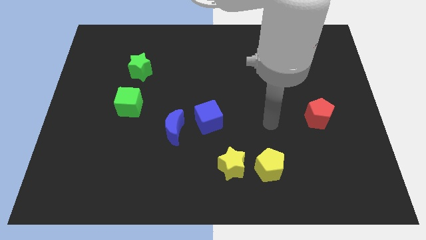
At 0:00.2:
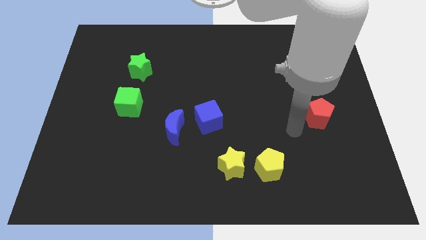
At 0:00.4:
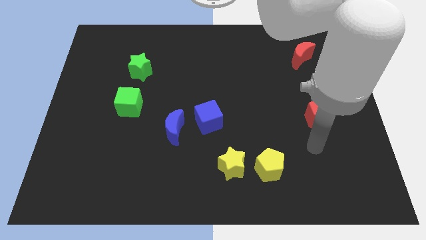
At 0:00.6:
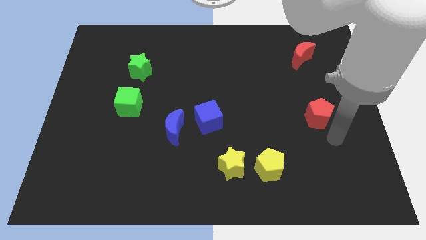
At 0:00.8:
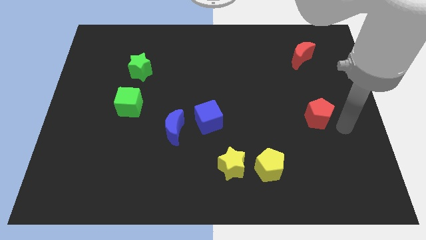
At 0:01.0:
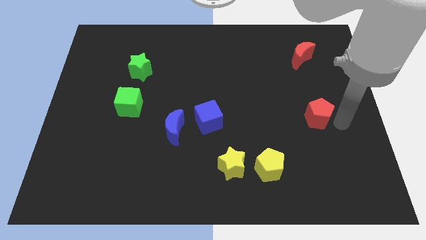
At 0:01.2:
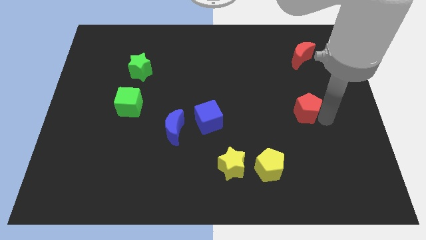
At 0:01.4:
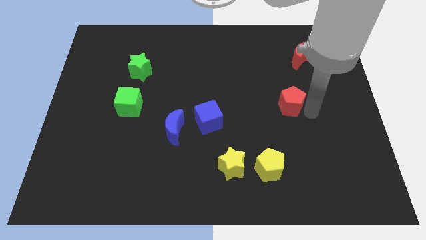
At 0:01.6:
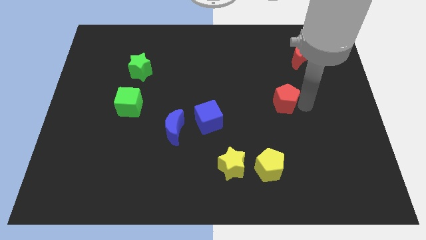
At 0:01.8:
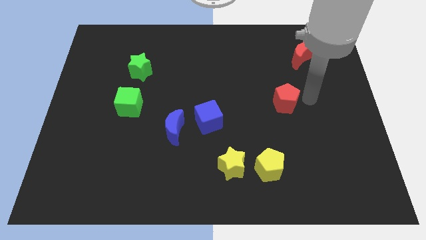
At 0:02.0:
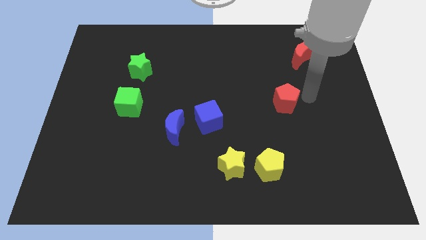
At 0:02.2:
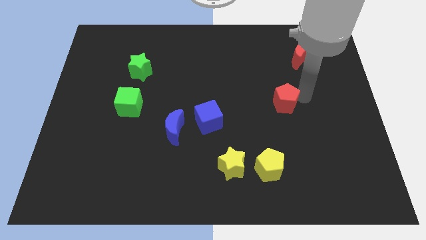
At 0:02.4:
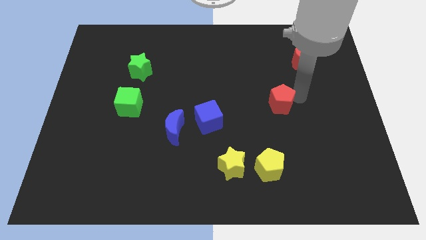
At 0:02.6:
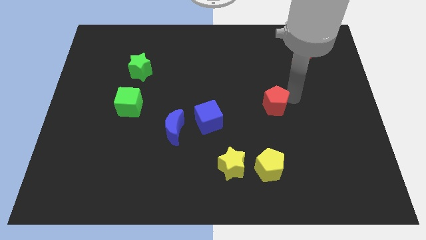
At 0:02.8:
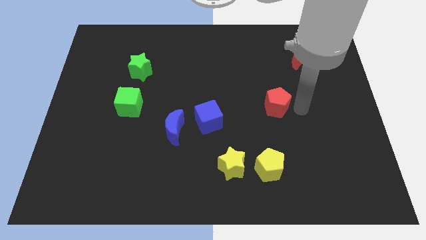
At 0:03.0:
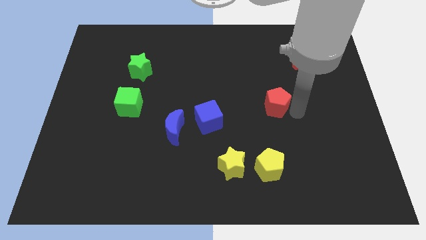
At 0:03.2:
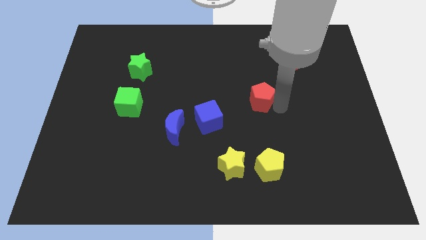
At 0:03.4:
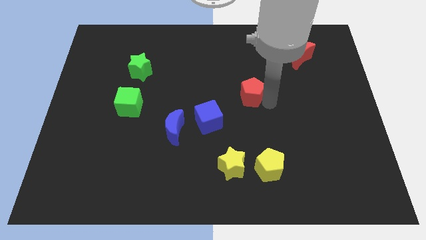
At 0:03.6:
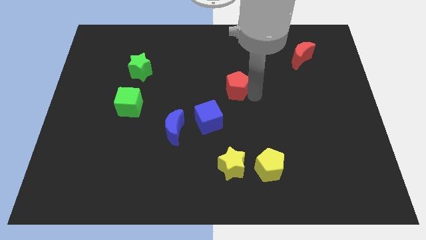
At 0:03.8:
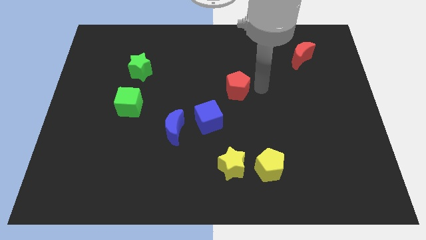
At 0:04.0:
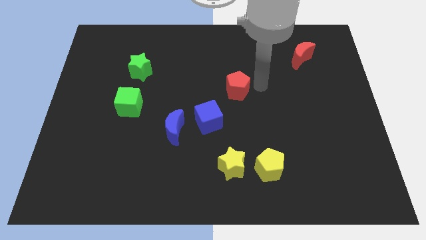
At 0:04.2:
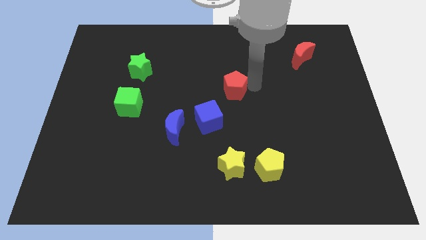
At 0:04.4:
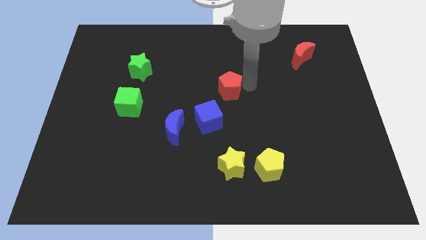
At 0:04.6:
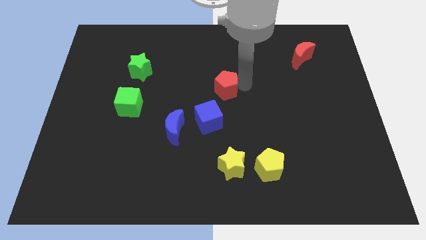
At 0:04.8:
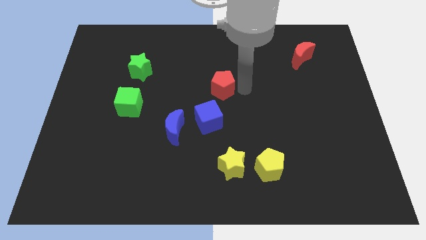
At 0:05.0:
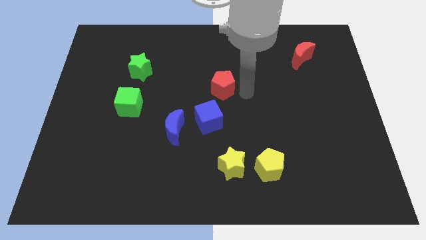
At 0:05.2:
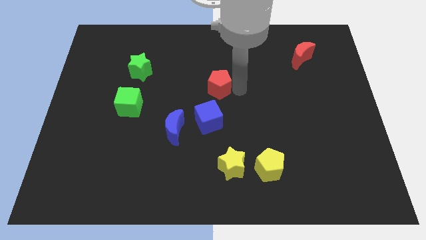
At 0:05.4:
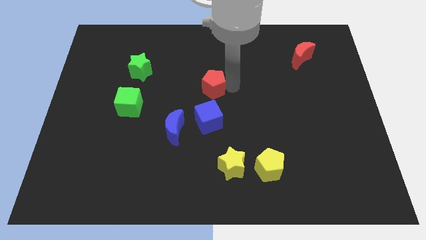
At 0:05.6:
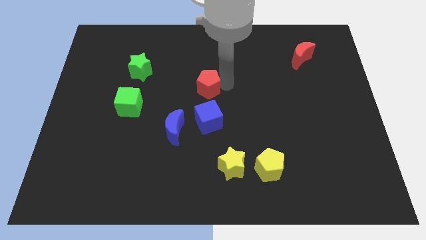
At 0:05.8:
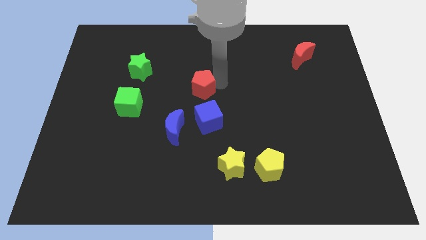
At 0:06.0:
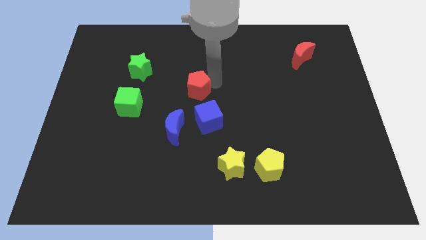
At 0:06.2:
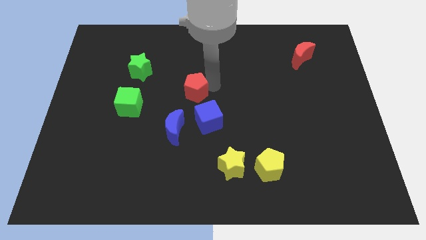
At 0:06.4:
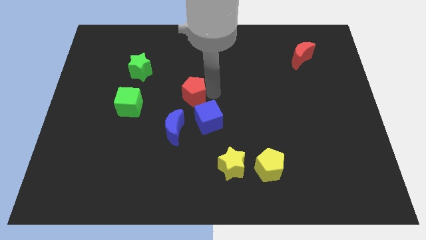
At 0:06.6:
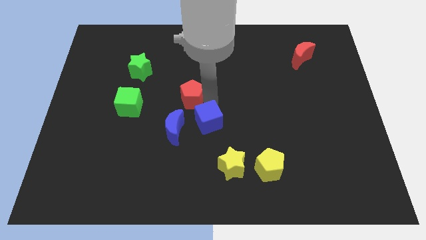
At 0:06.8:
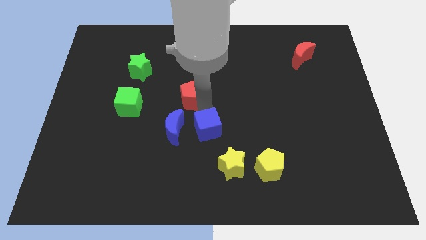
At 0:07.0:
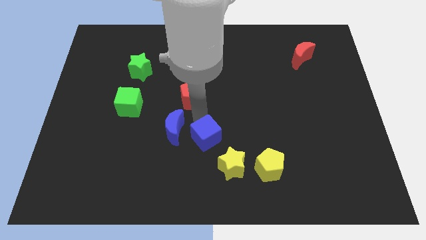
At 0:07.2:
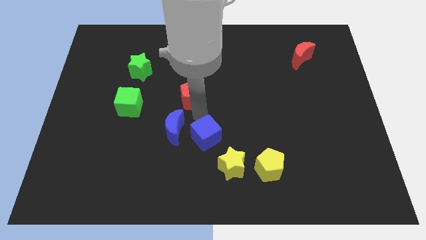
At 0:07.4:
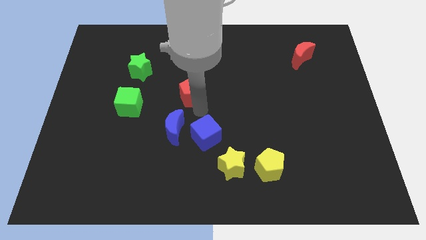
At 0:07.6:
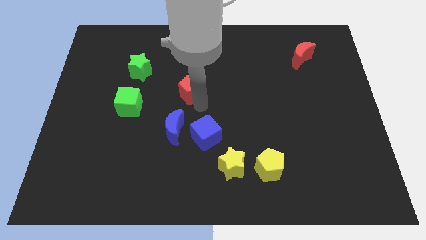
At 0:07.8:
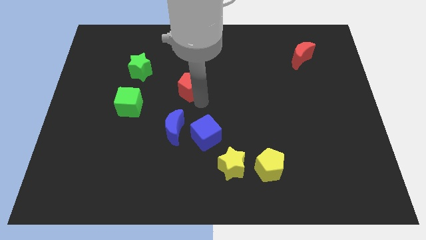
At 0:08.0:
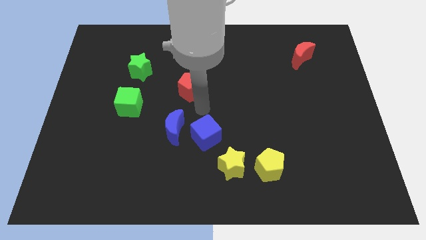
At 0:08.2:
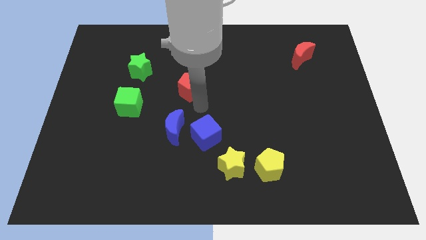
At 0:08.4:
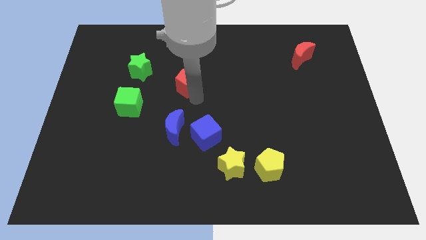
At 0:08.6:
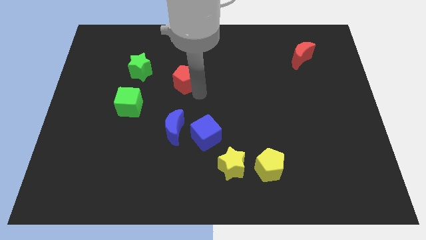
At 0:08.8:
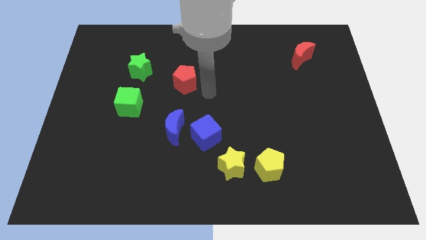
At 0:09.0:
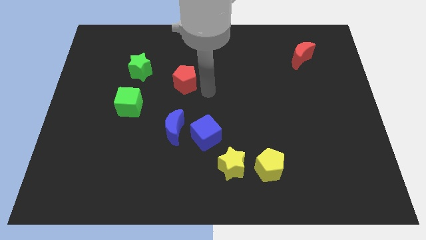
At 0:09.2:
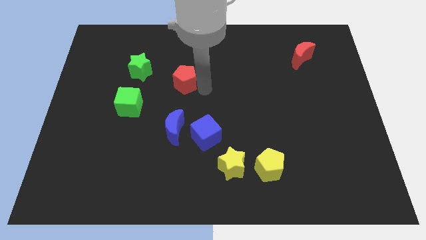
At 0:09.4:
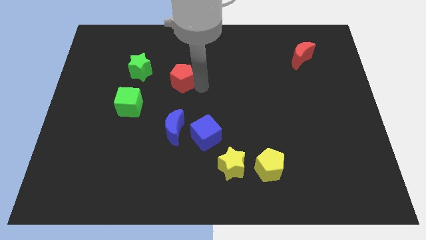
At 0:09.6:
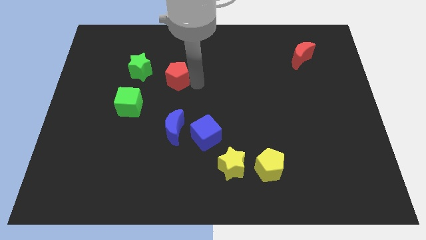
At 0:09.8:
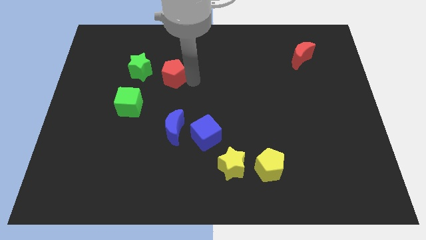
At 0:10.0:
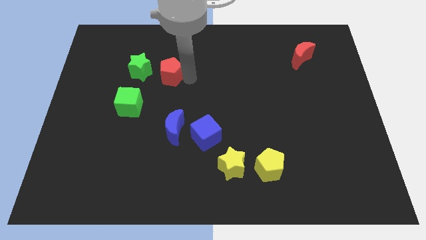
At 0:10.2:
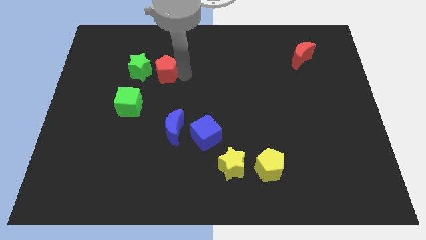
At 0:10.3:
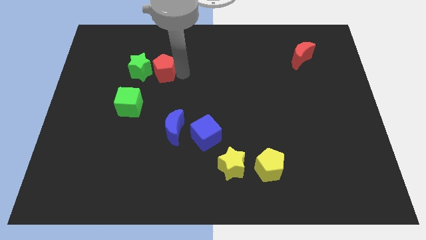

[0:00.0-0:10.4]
put the red pentagon close to the green star

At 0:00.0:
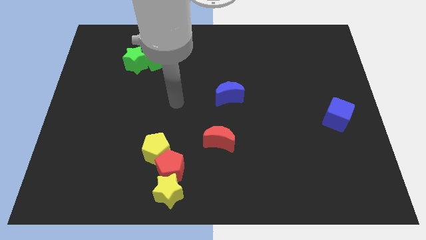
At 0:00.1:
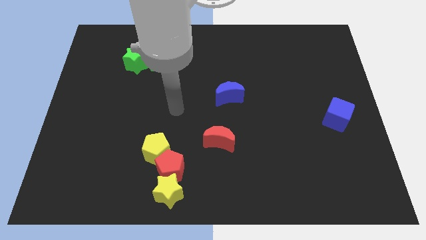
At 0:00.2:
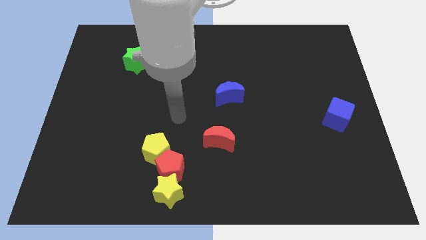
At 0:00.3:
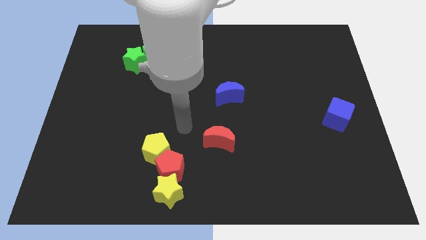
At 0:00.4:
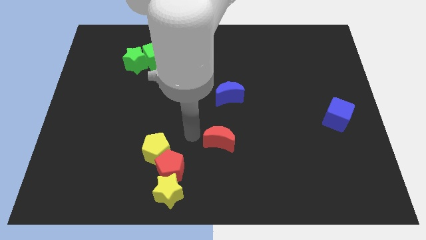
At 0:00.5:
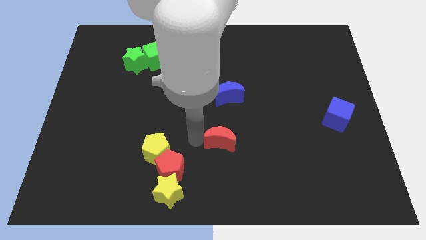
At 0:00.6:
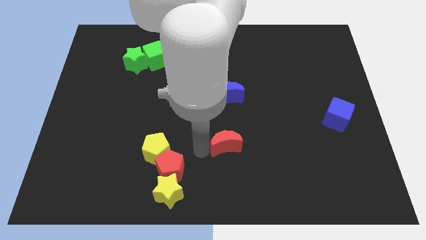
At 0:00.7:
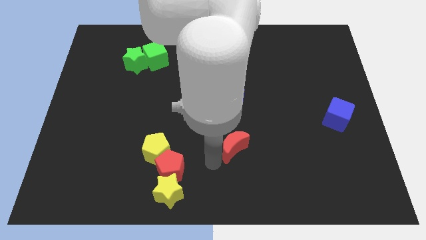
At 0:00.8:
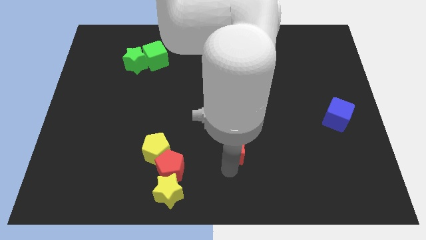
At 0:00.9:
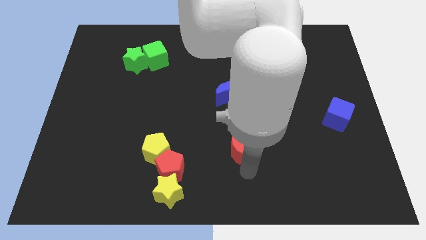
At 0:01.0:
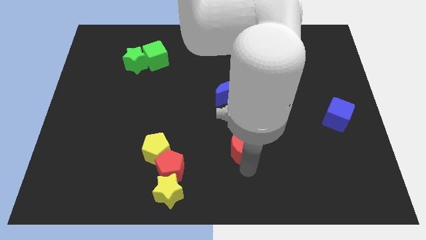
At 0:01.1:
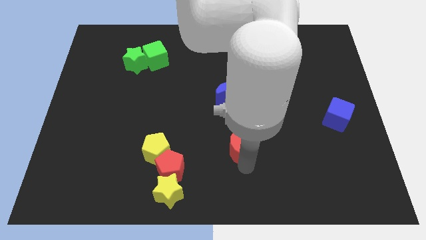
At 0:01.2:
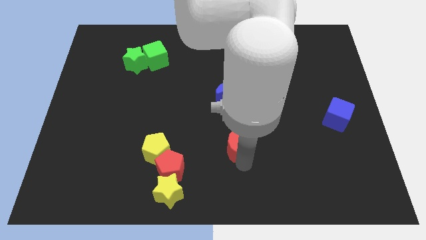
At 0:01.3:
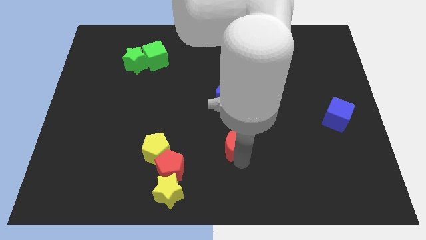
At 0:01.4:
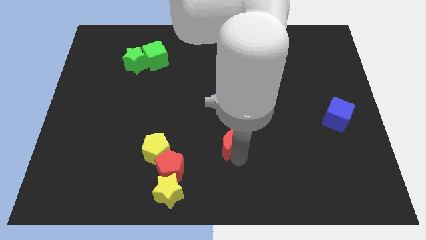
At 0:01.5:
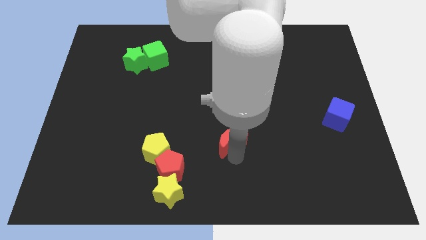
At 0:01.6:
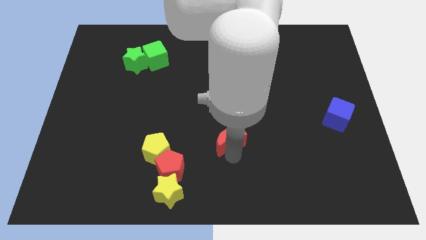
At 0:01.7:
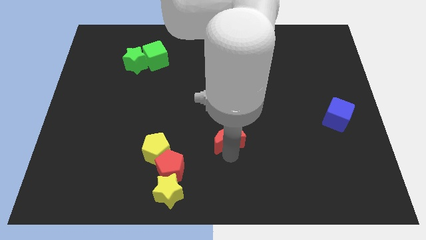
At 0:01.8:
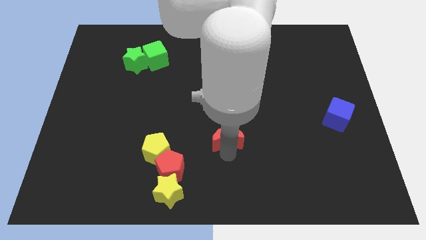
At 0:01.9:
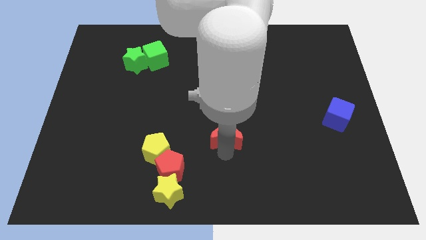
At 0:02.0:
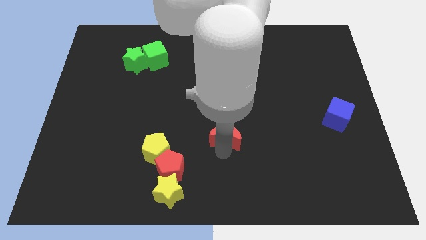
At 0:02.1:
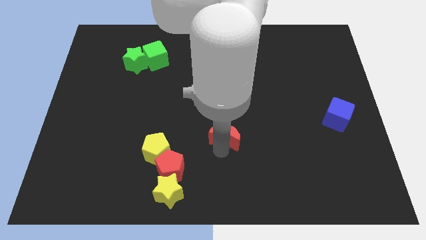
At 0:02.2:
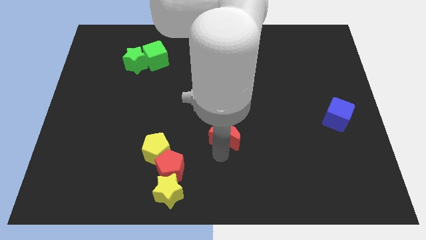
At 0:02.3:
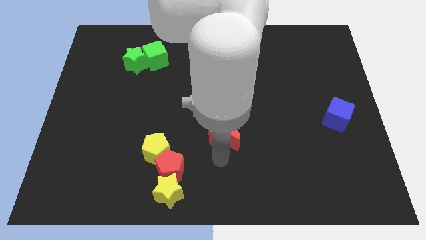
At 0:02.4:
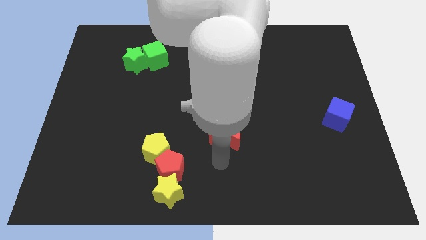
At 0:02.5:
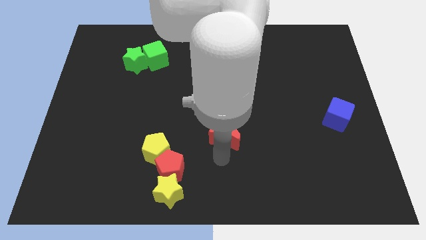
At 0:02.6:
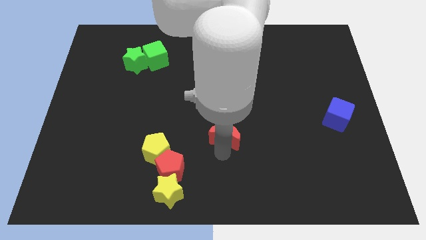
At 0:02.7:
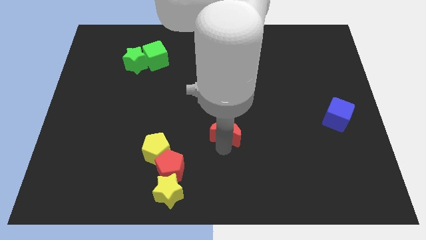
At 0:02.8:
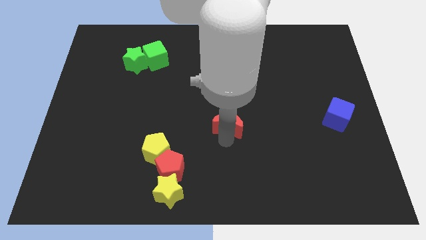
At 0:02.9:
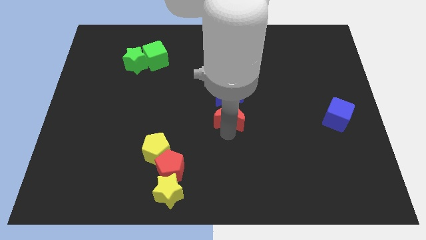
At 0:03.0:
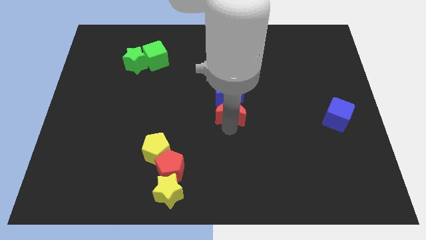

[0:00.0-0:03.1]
push the red moon next to the blue moon
